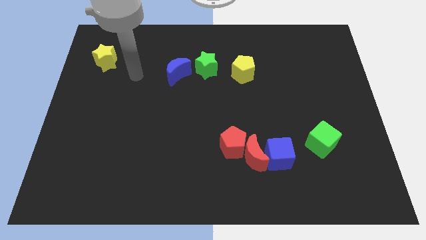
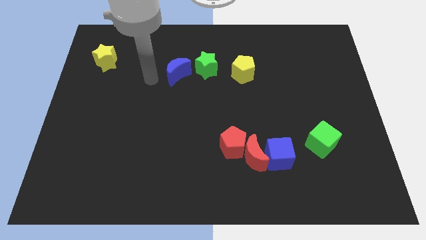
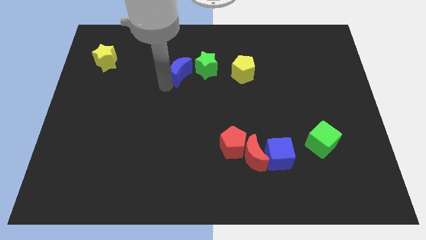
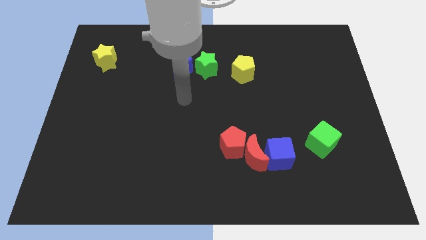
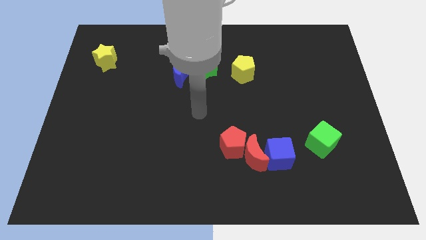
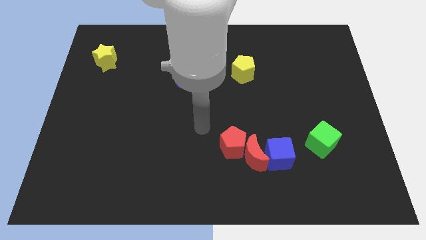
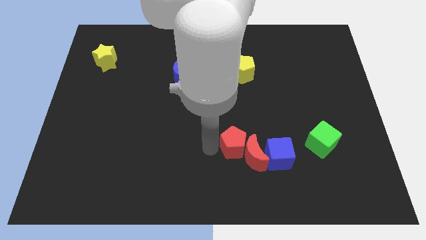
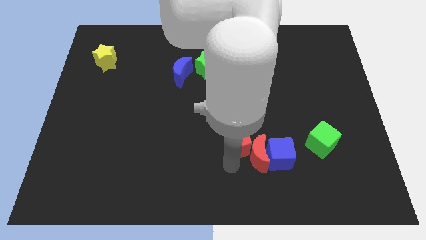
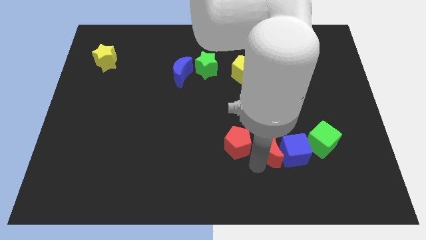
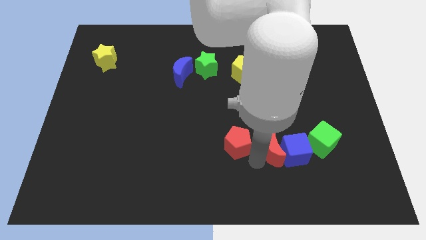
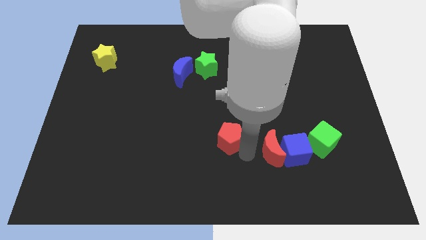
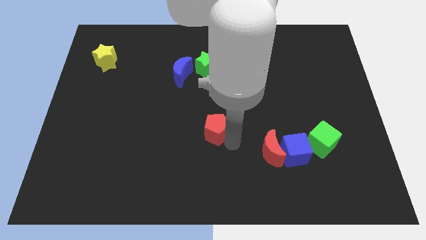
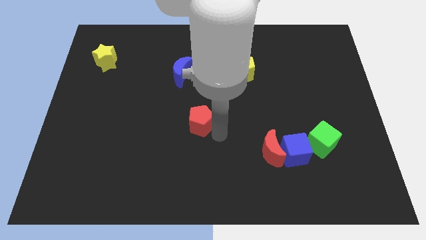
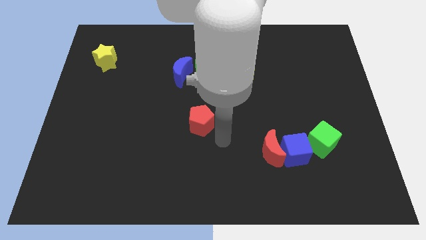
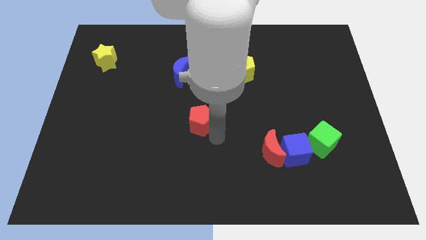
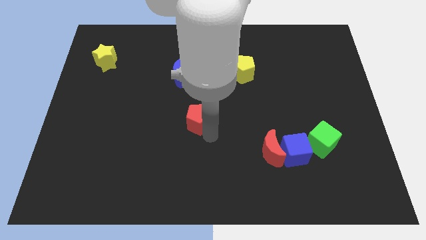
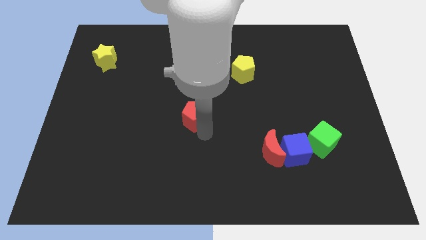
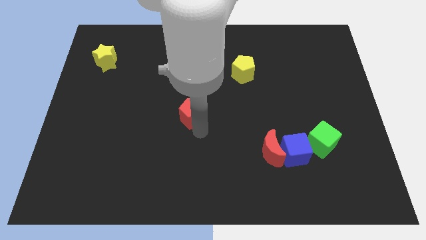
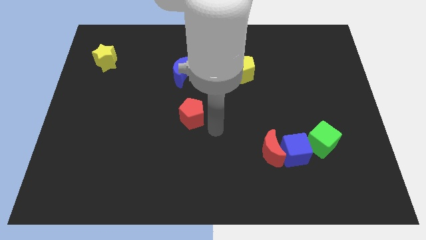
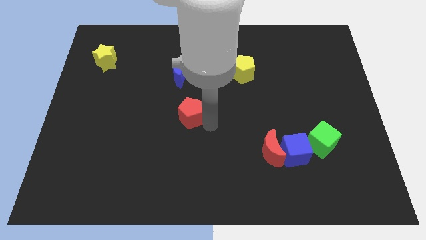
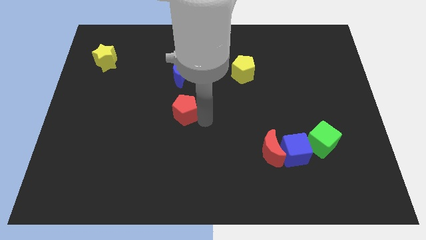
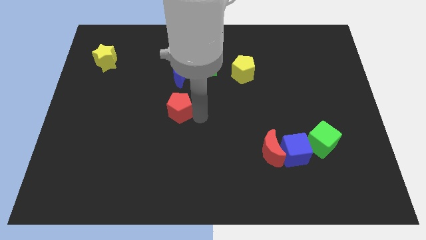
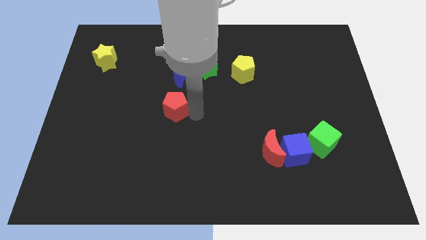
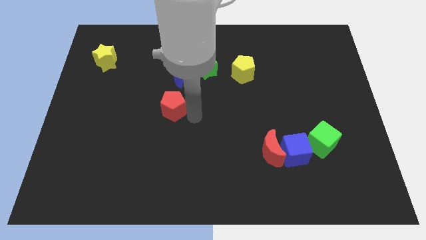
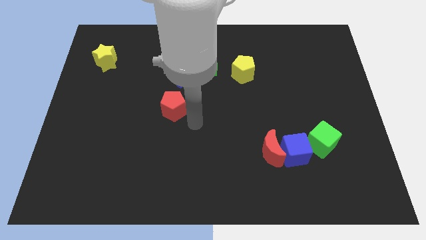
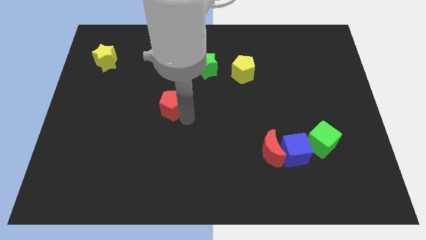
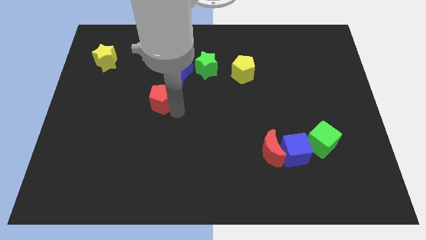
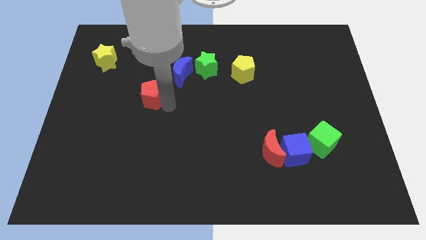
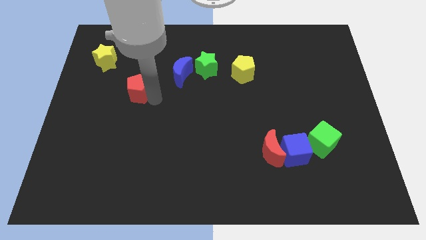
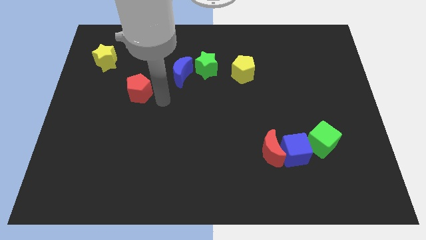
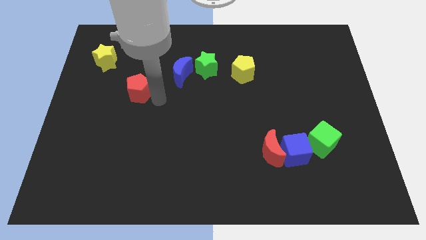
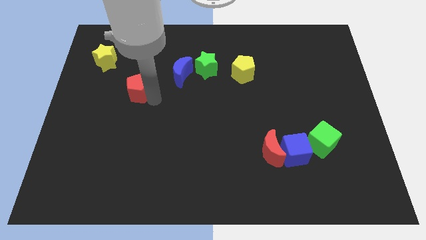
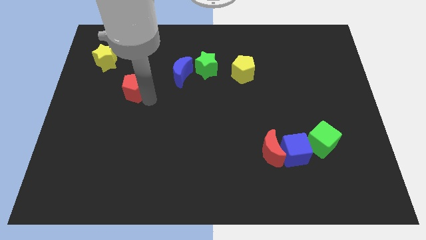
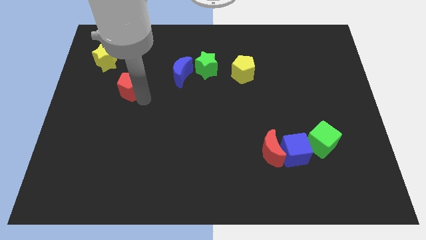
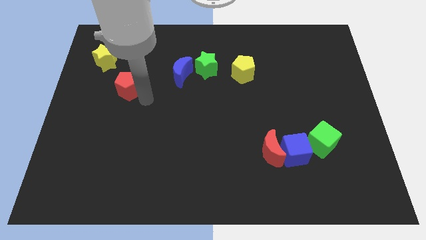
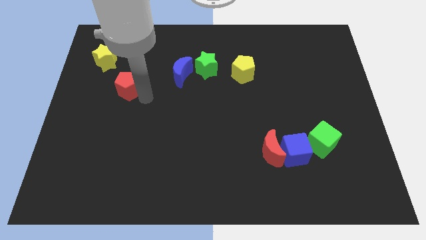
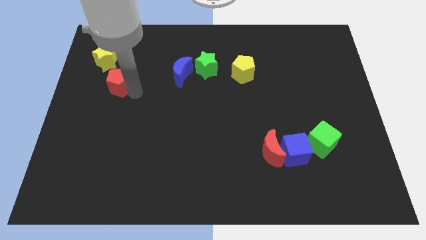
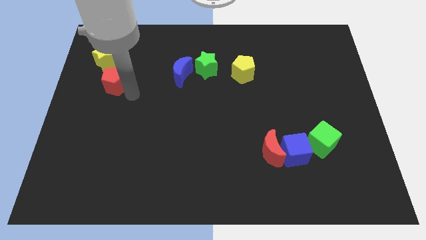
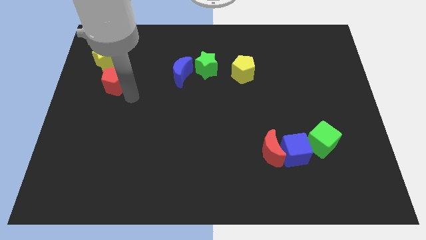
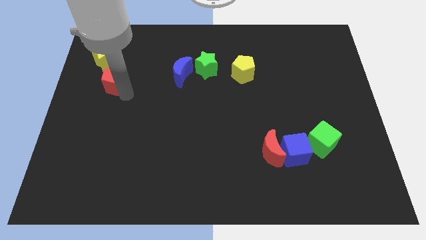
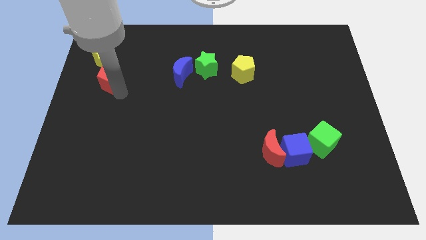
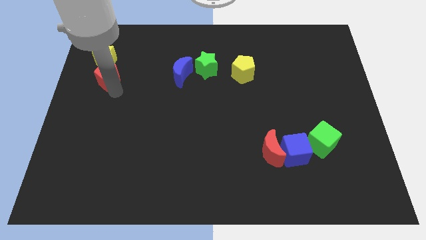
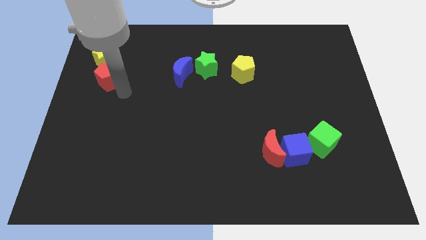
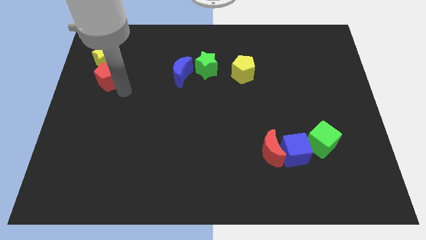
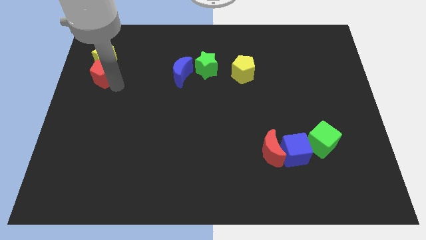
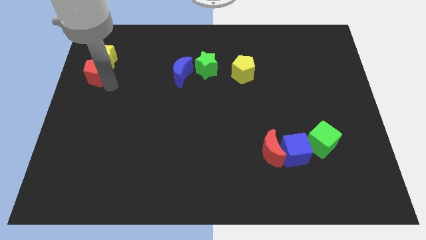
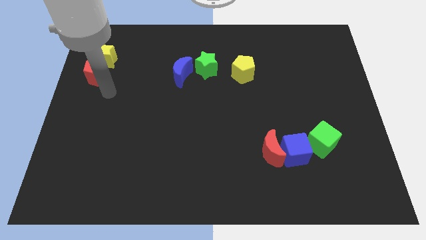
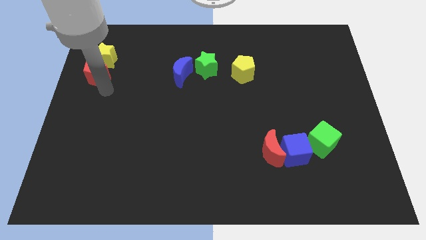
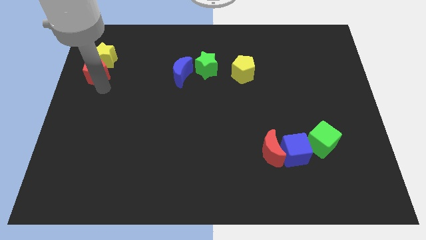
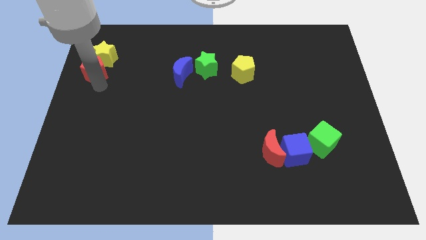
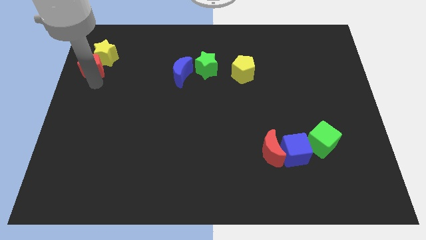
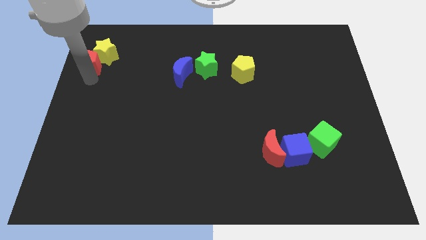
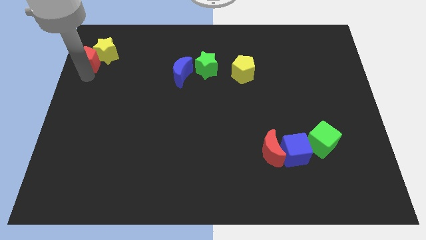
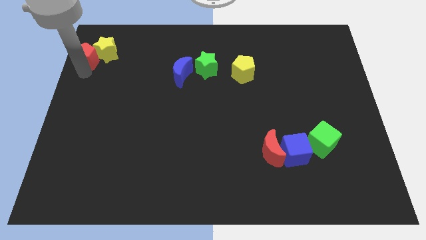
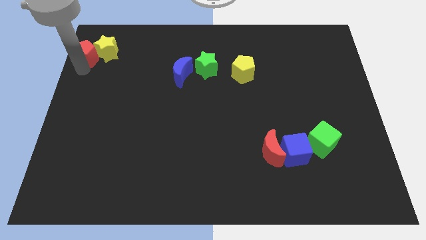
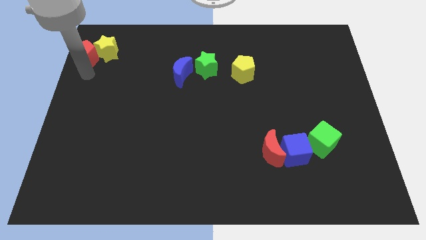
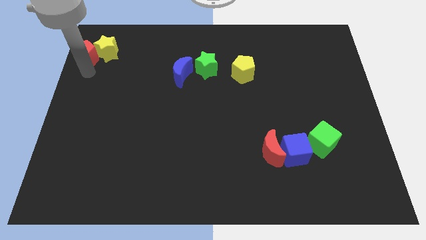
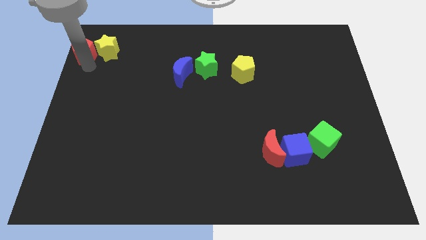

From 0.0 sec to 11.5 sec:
put the red pentagon to the top left corner

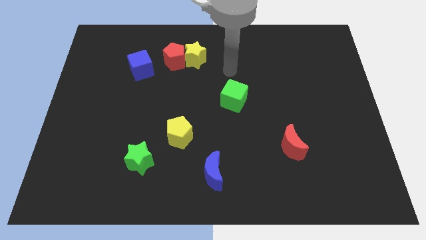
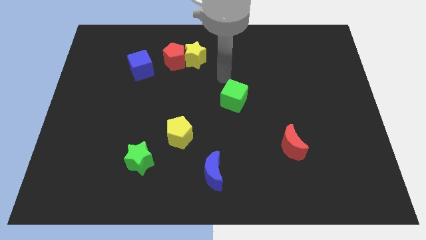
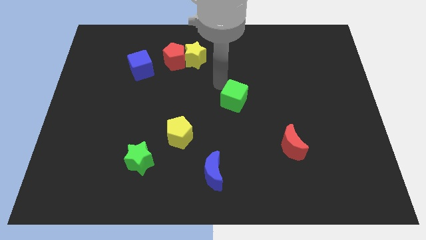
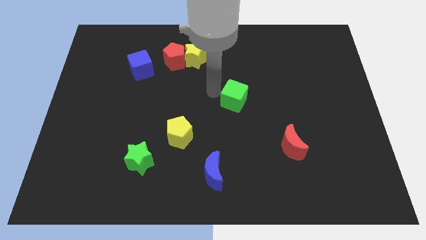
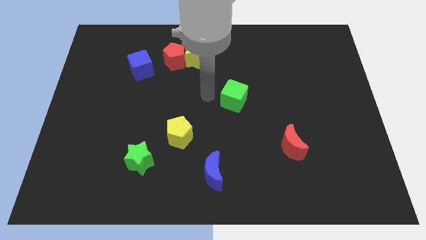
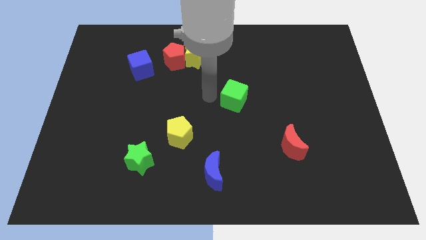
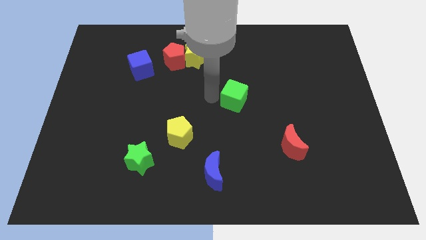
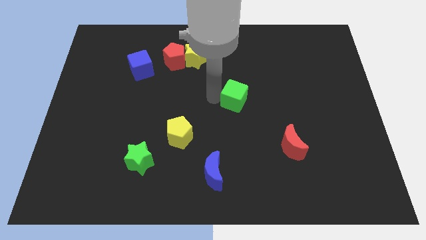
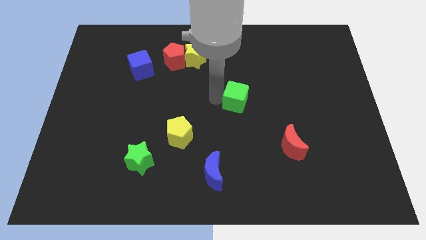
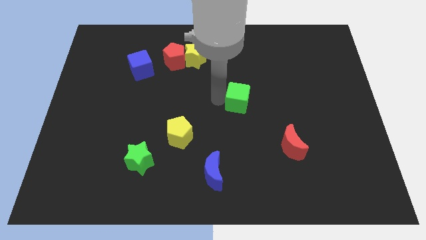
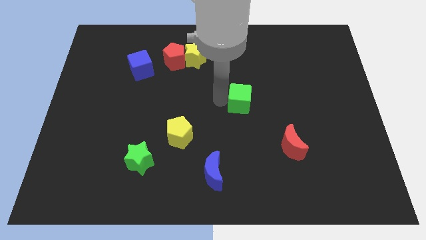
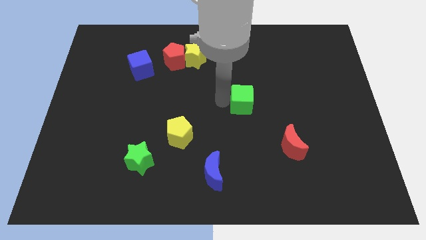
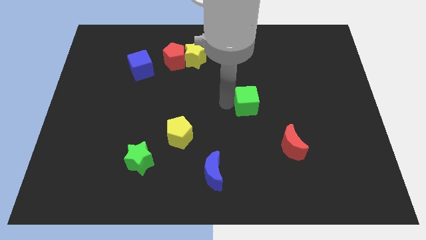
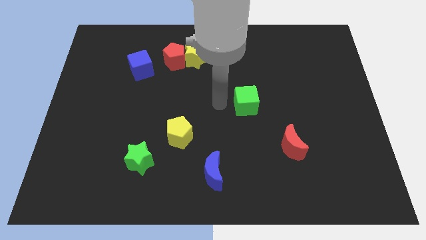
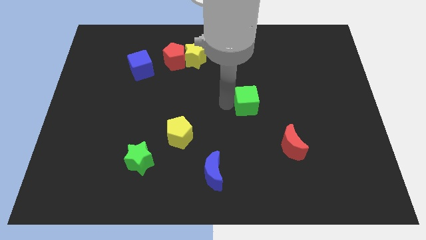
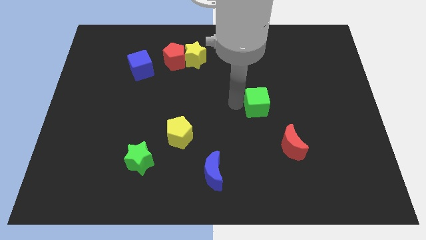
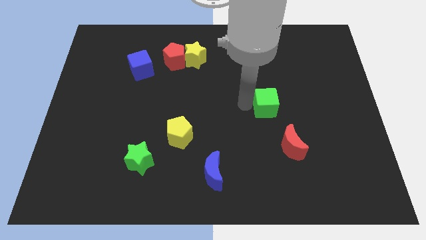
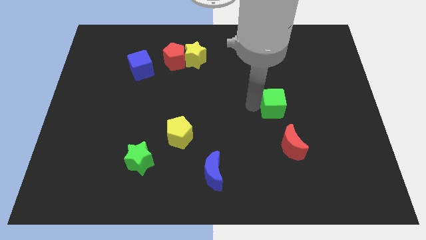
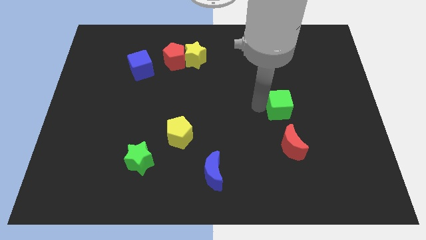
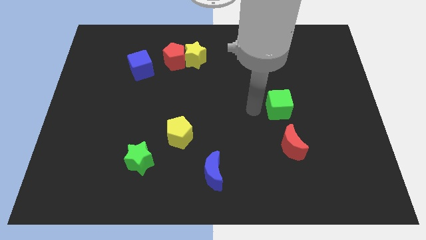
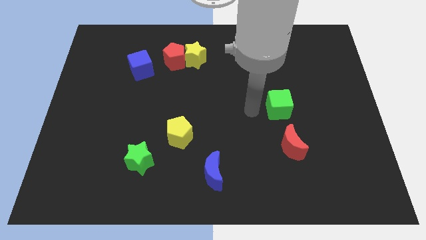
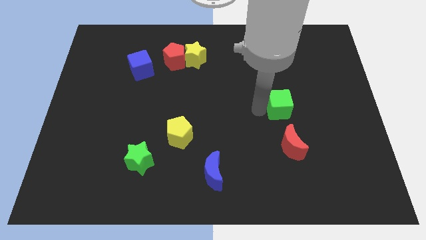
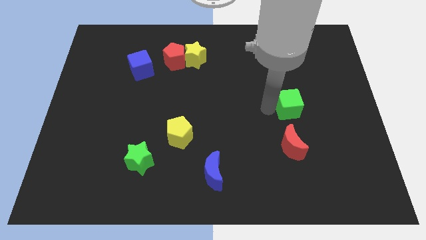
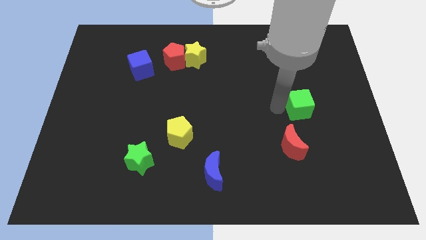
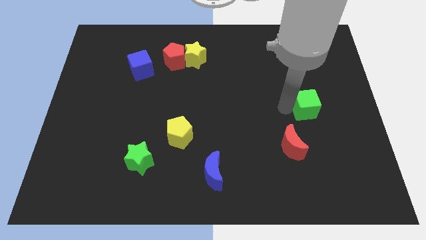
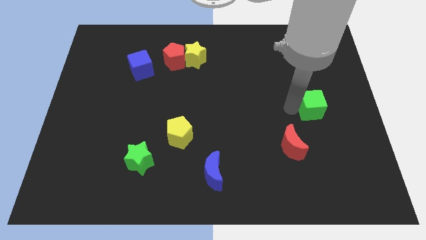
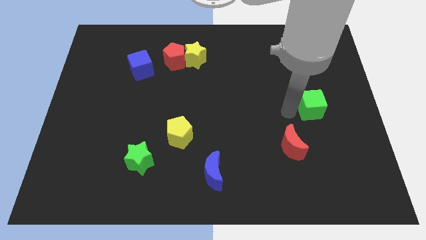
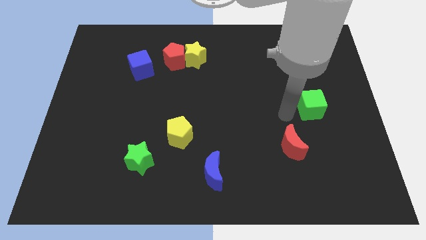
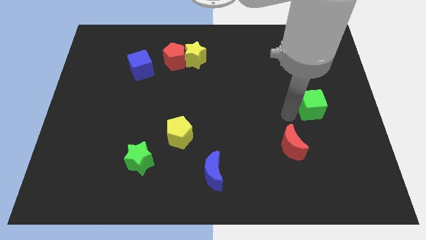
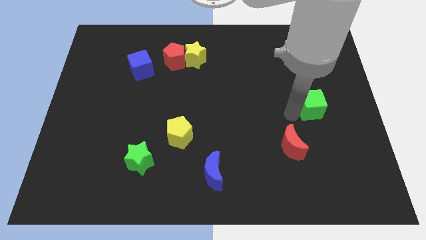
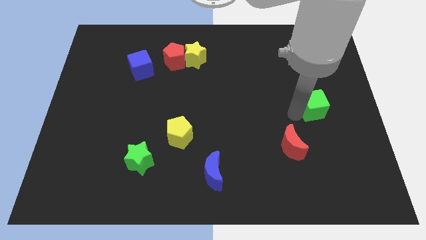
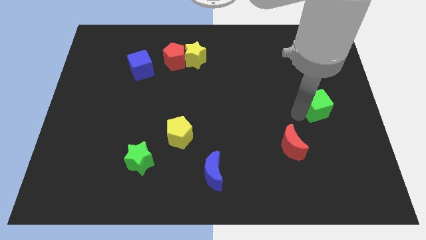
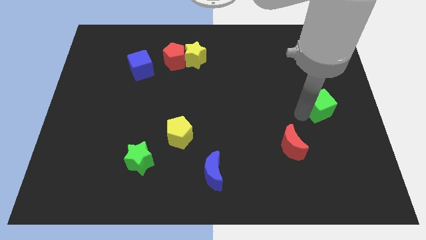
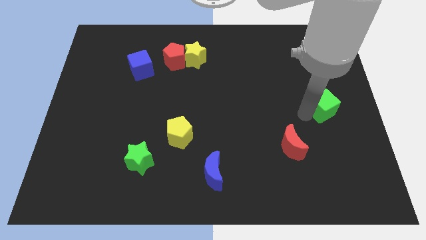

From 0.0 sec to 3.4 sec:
put the green cube to the center right
